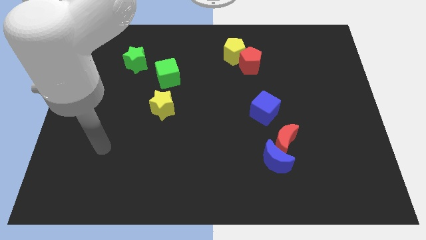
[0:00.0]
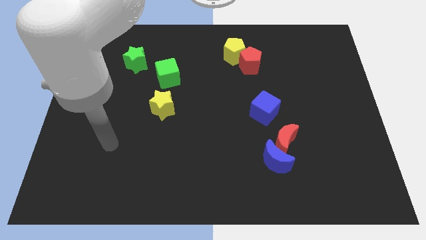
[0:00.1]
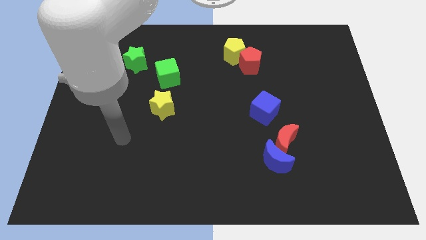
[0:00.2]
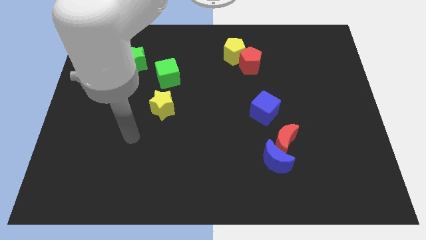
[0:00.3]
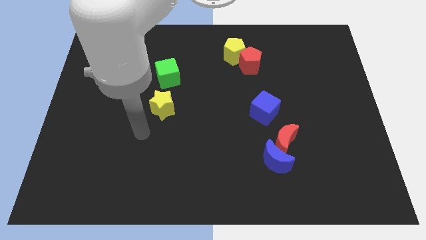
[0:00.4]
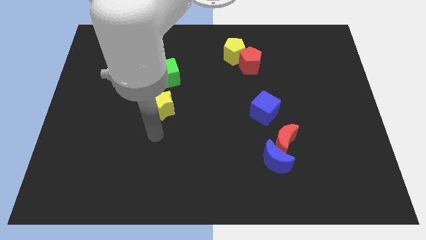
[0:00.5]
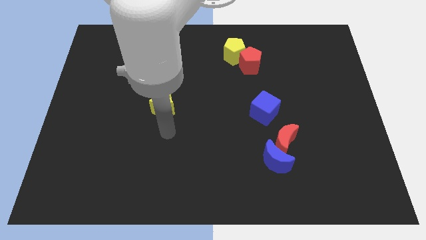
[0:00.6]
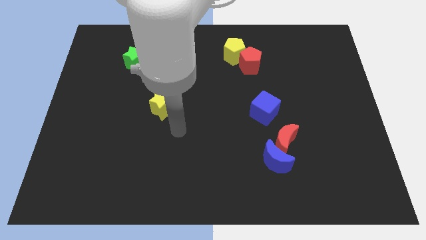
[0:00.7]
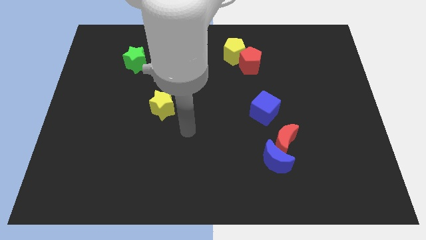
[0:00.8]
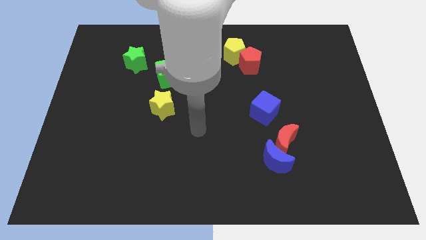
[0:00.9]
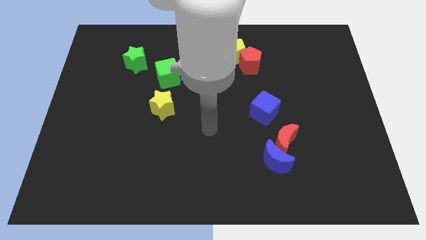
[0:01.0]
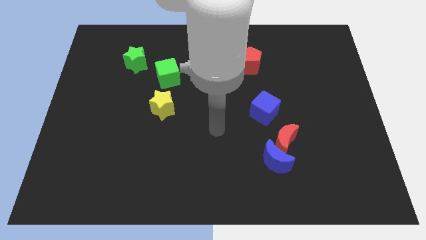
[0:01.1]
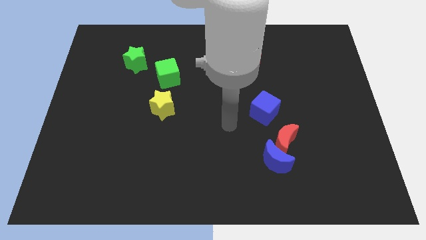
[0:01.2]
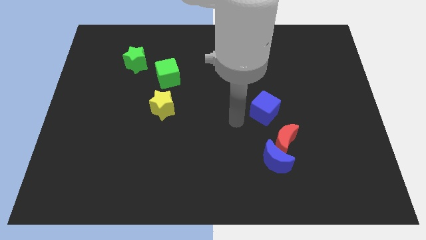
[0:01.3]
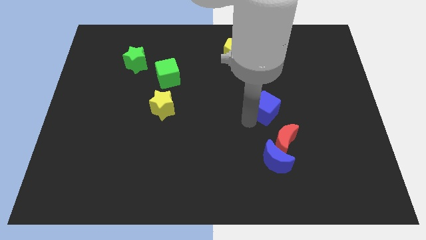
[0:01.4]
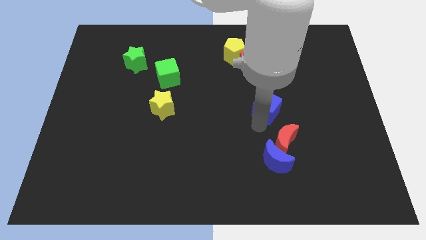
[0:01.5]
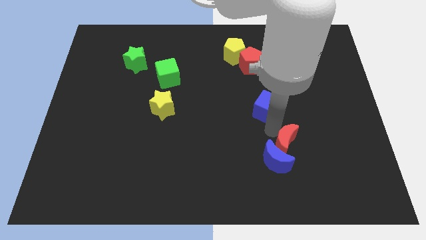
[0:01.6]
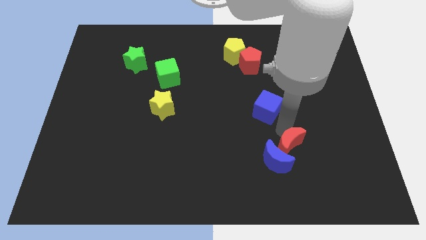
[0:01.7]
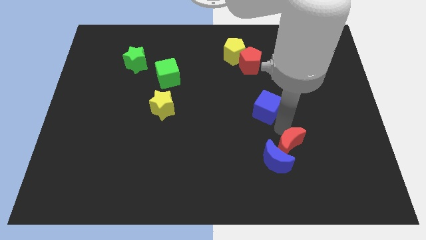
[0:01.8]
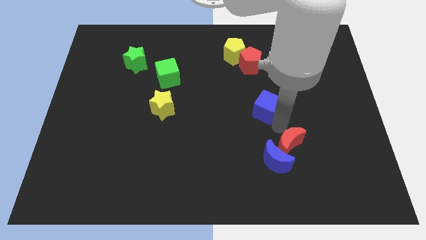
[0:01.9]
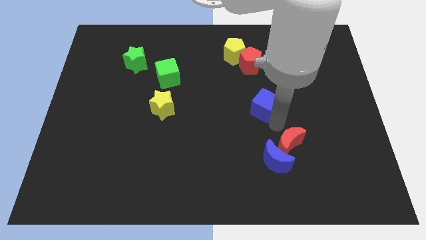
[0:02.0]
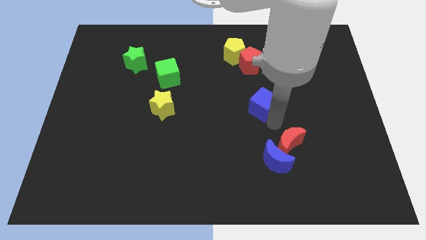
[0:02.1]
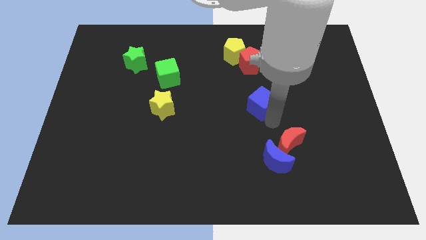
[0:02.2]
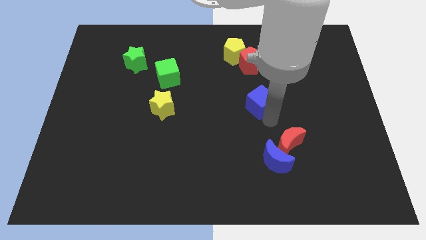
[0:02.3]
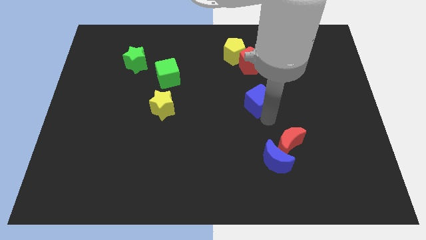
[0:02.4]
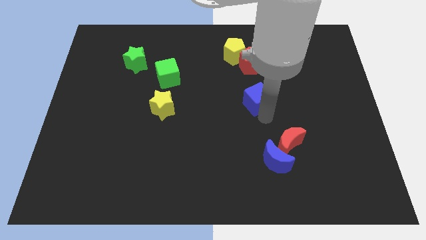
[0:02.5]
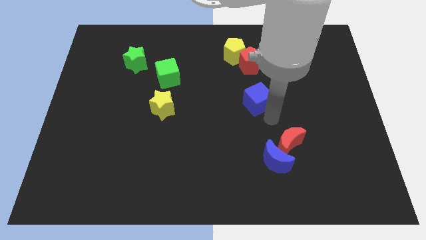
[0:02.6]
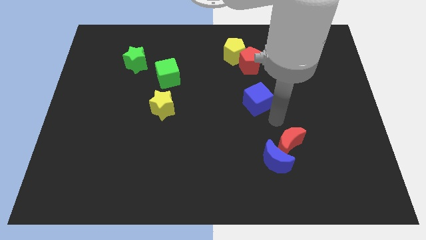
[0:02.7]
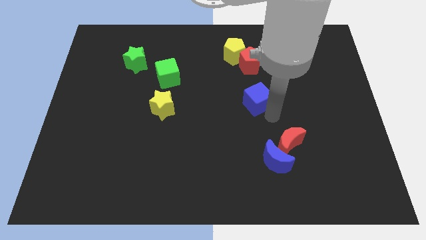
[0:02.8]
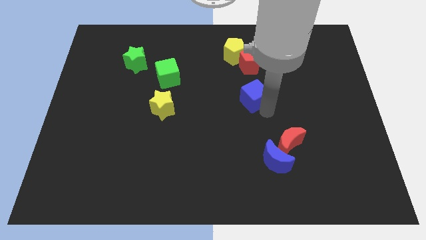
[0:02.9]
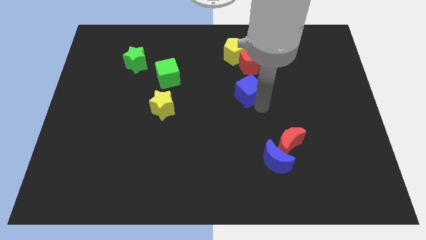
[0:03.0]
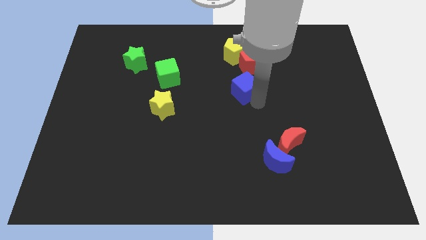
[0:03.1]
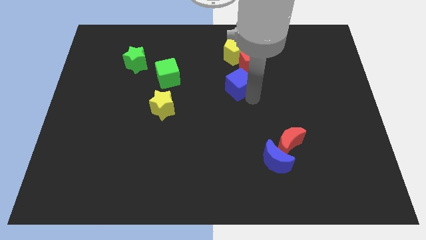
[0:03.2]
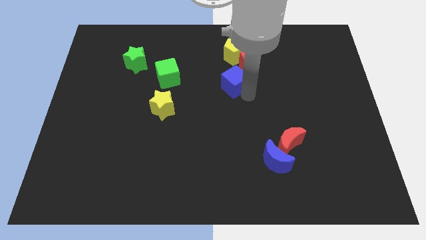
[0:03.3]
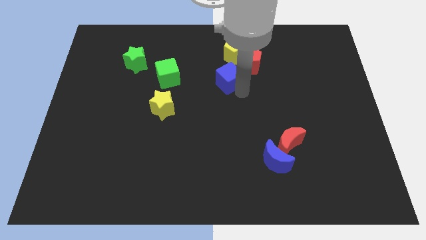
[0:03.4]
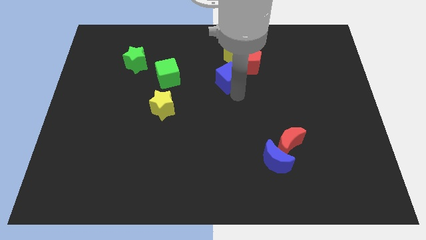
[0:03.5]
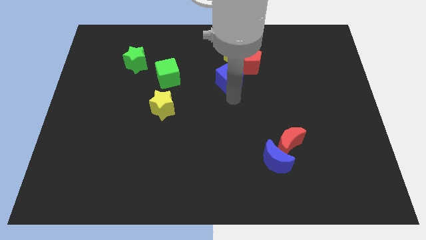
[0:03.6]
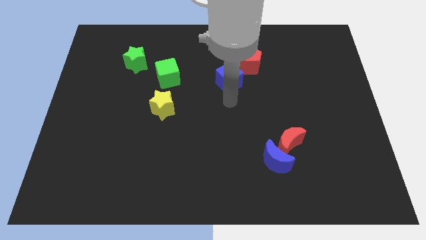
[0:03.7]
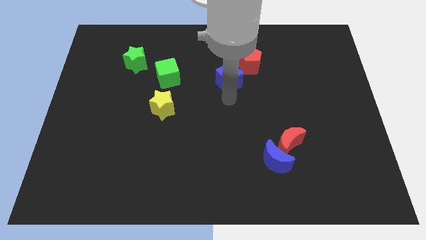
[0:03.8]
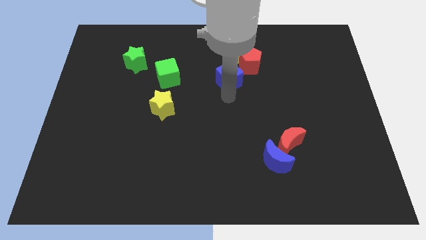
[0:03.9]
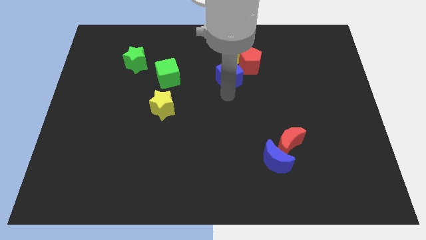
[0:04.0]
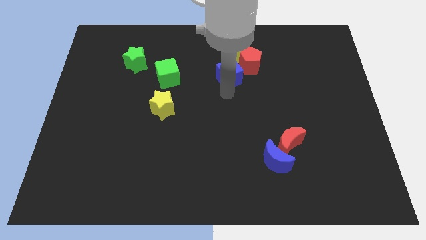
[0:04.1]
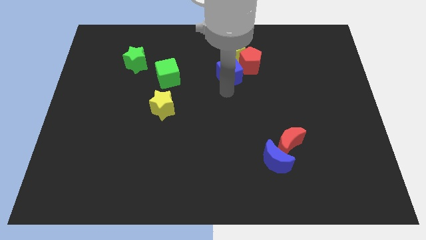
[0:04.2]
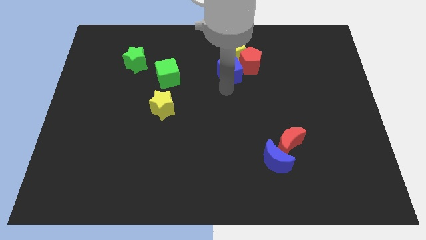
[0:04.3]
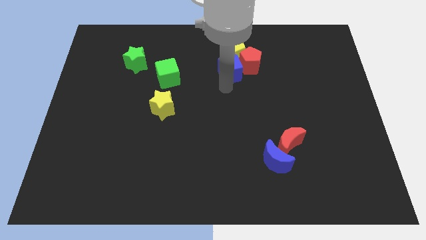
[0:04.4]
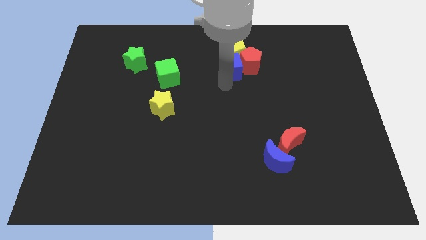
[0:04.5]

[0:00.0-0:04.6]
push the blue cube next to the yellow pentagon

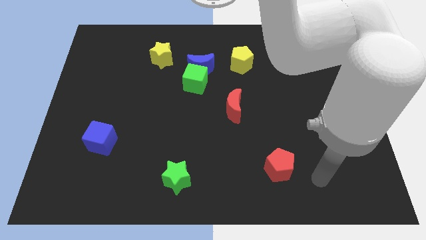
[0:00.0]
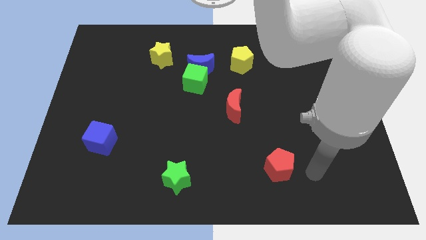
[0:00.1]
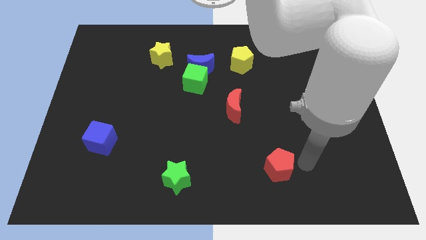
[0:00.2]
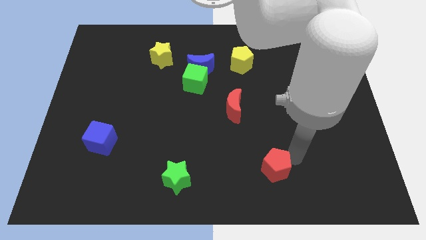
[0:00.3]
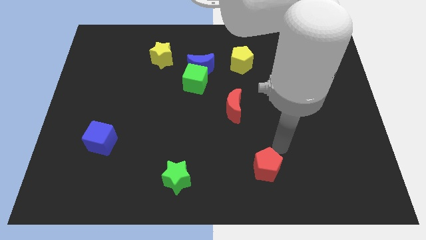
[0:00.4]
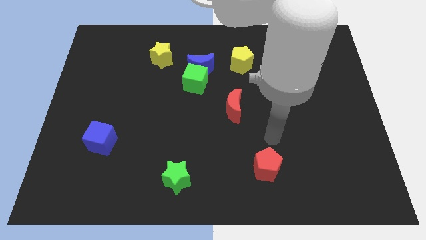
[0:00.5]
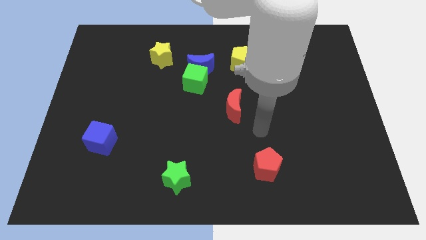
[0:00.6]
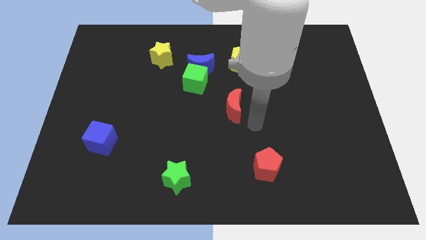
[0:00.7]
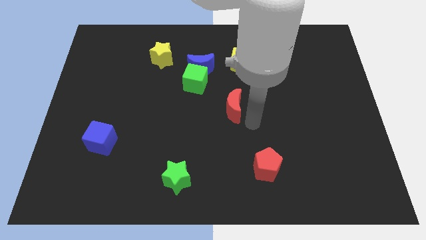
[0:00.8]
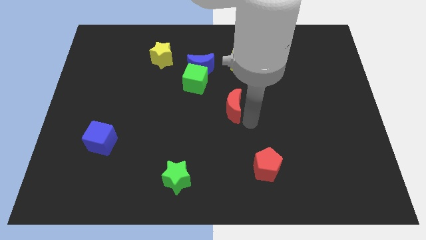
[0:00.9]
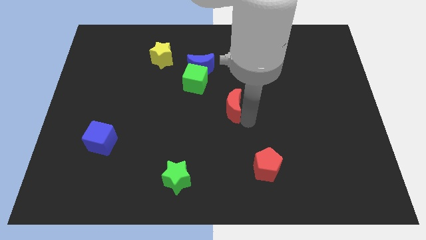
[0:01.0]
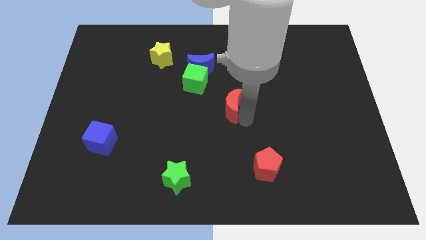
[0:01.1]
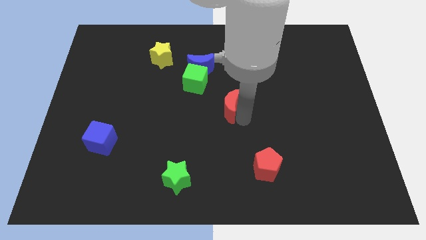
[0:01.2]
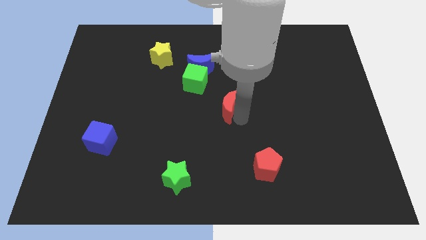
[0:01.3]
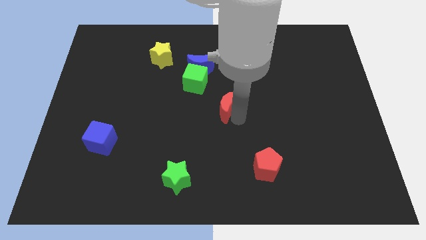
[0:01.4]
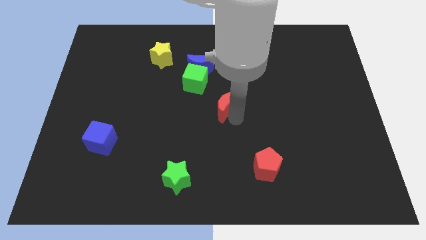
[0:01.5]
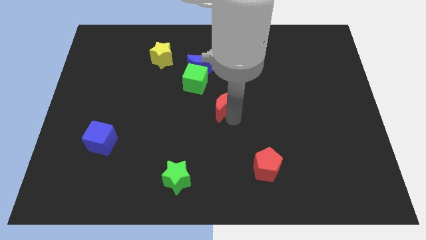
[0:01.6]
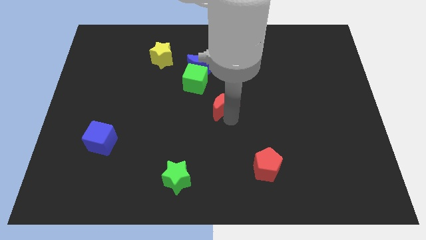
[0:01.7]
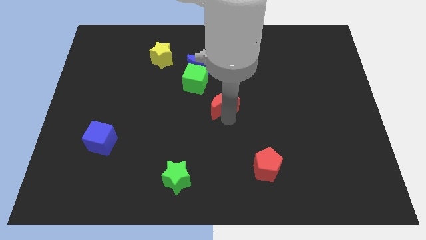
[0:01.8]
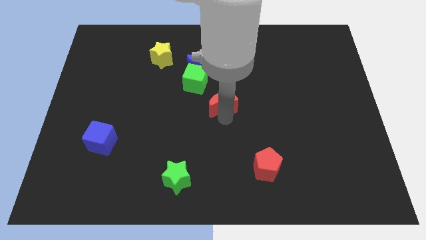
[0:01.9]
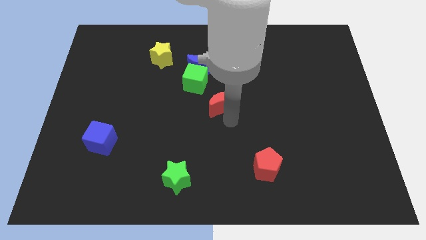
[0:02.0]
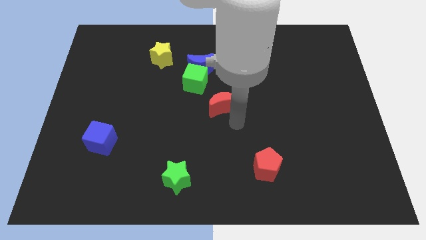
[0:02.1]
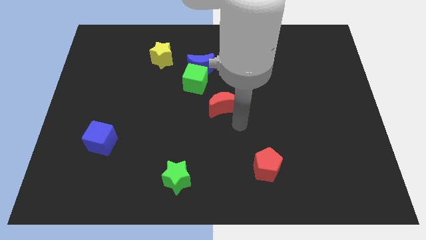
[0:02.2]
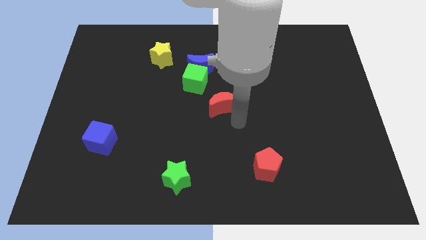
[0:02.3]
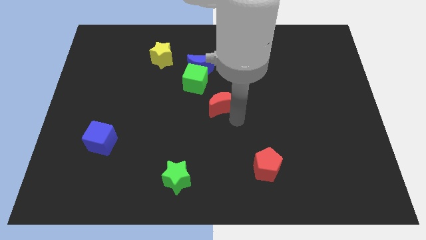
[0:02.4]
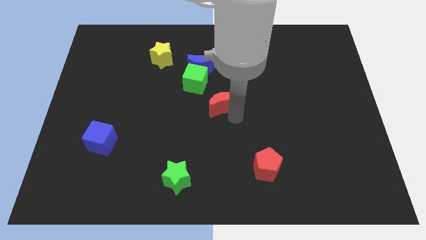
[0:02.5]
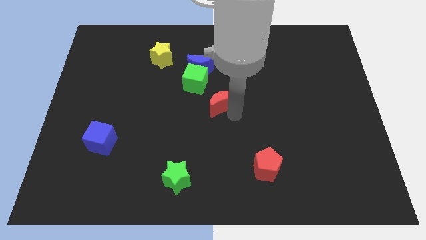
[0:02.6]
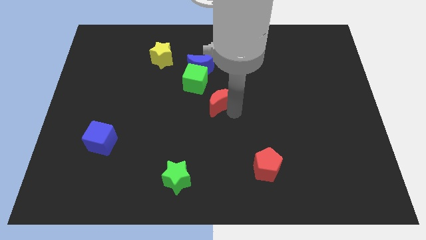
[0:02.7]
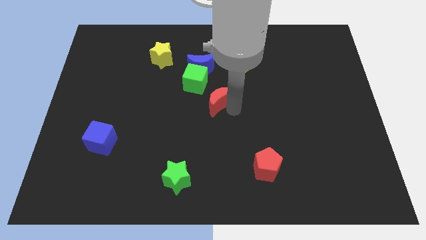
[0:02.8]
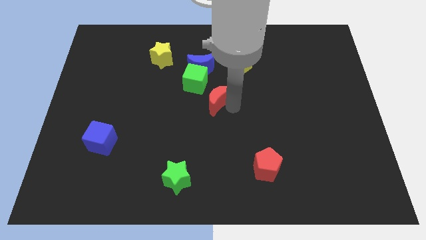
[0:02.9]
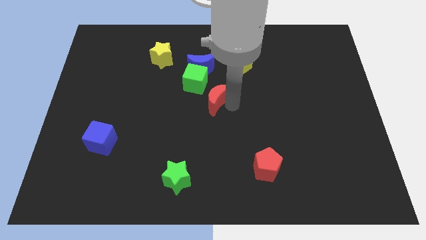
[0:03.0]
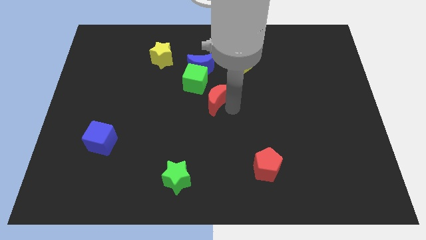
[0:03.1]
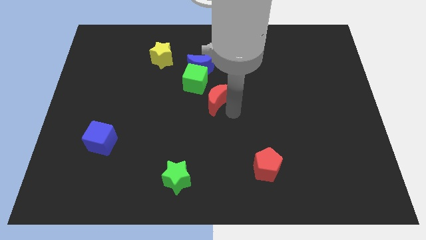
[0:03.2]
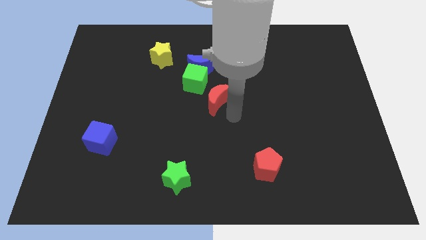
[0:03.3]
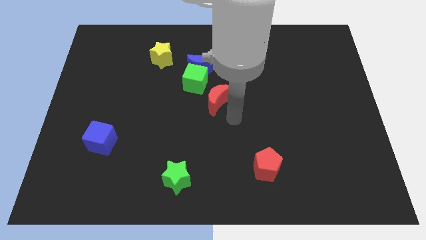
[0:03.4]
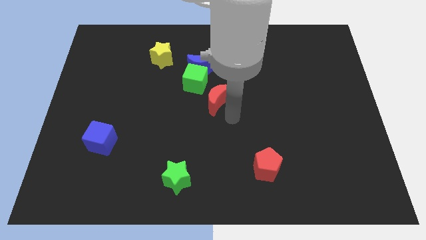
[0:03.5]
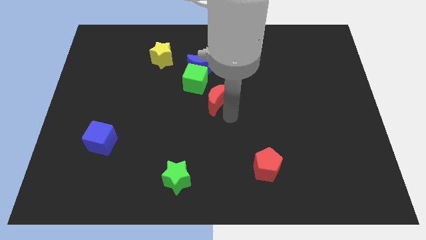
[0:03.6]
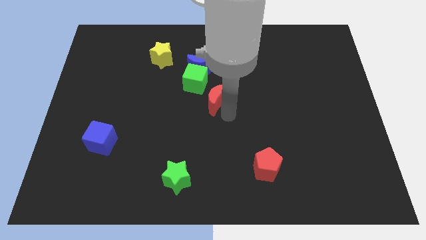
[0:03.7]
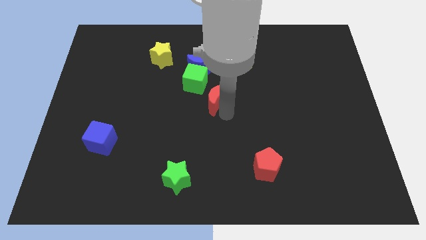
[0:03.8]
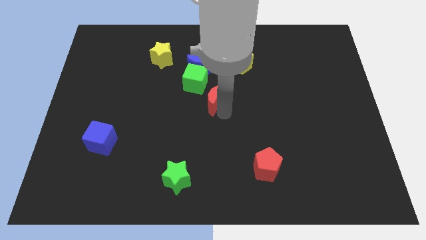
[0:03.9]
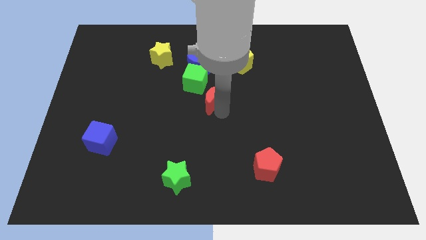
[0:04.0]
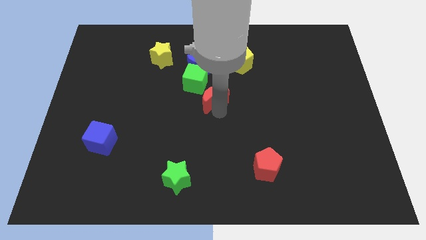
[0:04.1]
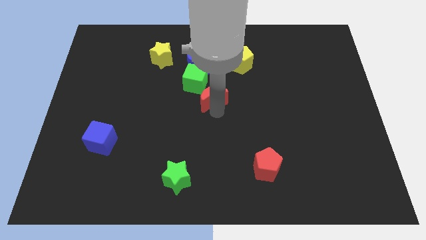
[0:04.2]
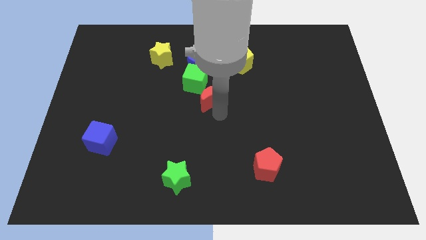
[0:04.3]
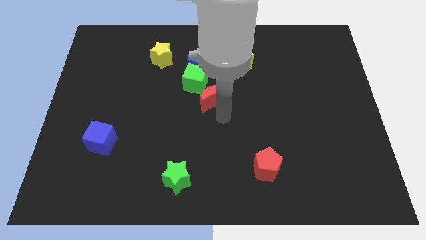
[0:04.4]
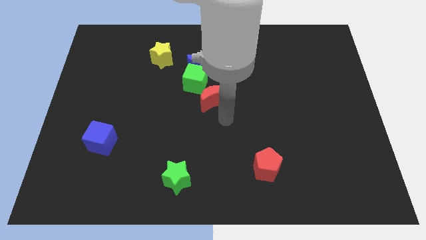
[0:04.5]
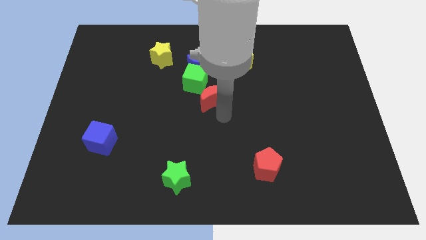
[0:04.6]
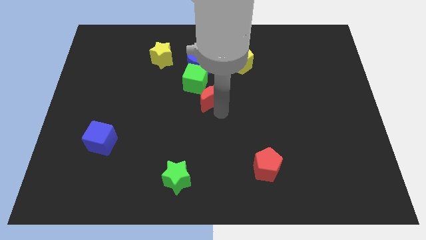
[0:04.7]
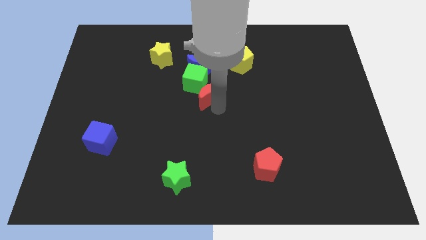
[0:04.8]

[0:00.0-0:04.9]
move the red moon close to the green cube
